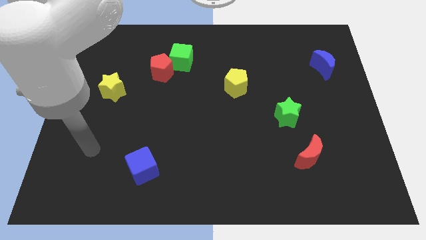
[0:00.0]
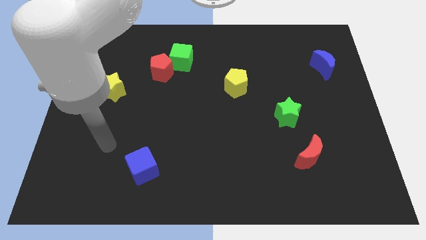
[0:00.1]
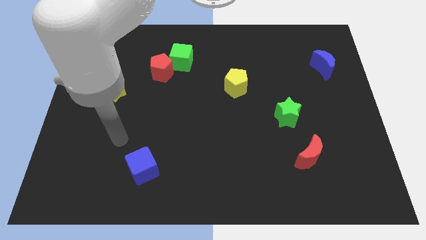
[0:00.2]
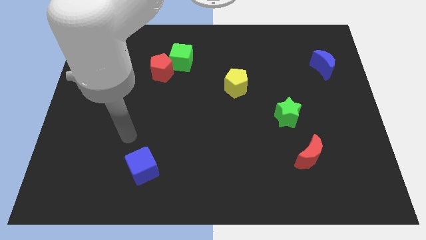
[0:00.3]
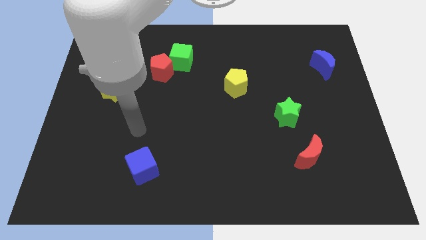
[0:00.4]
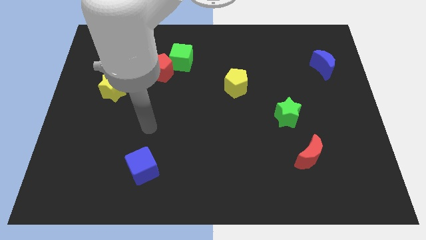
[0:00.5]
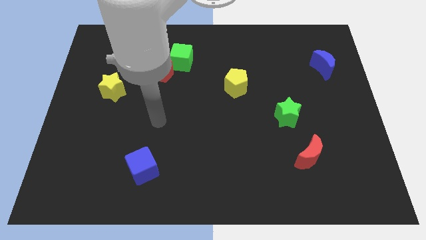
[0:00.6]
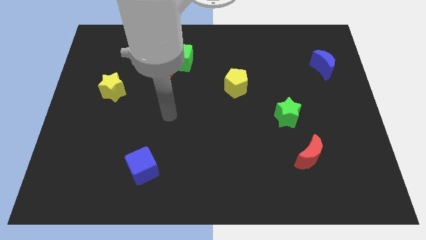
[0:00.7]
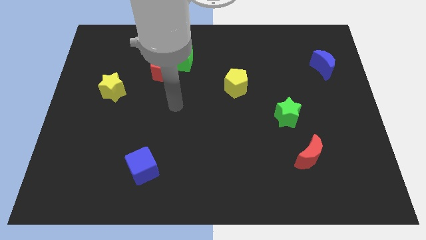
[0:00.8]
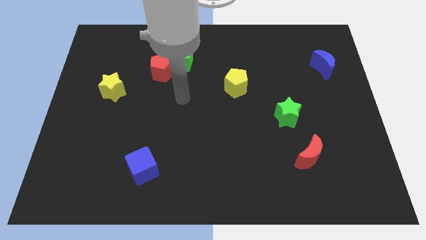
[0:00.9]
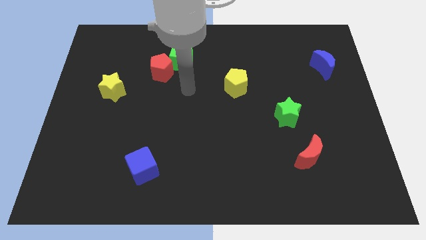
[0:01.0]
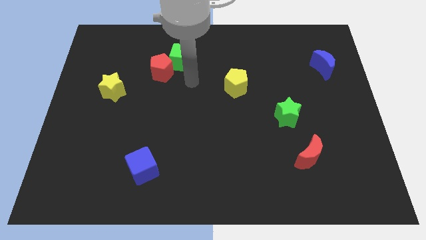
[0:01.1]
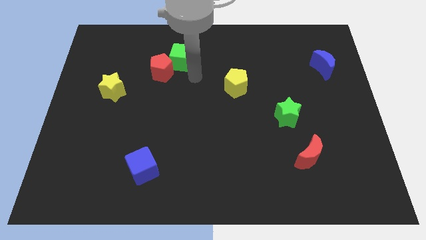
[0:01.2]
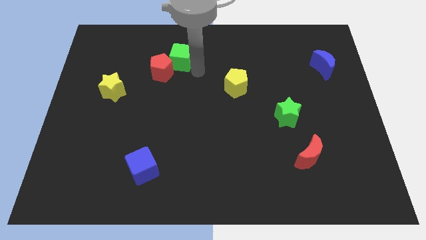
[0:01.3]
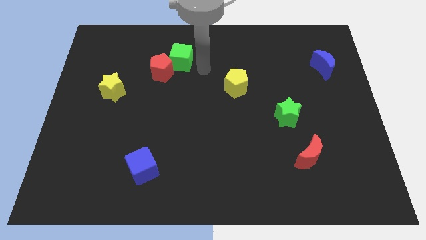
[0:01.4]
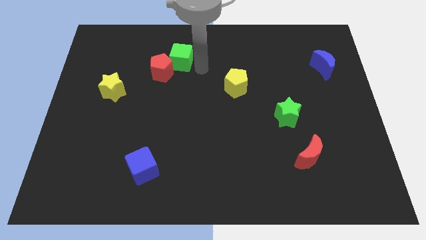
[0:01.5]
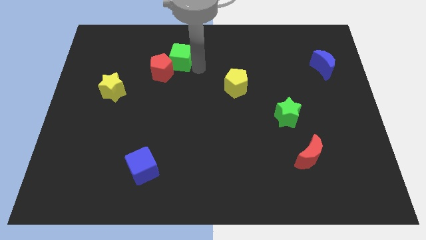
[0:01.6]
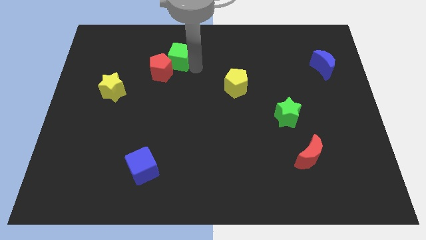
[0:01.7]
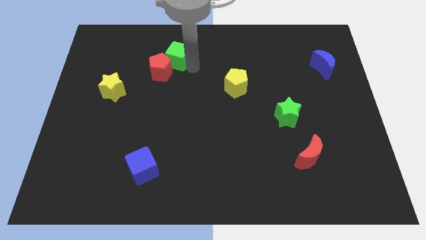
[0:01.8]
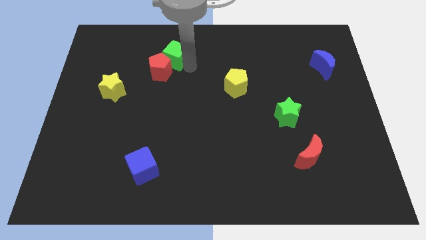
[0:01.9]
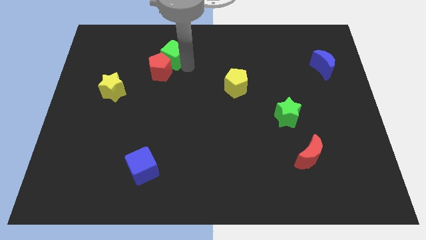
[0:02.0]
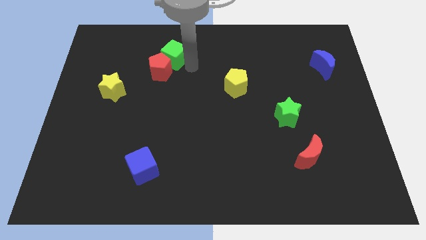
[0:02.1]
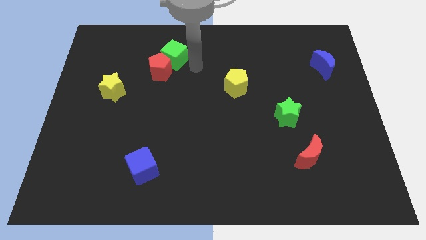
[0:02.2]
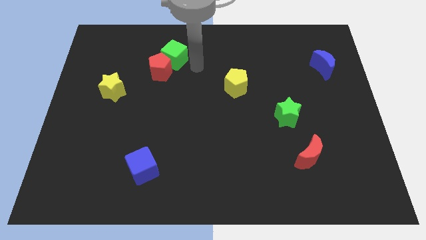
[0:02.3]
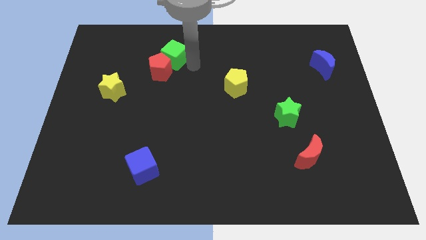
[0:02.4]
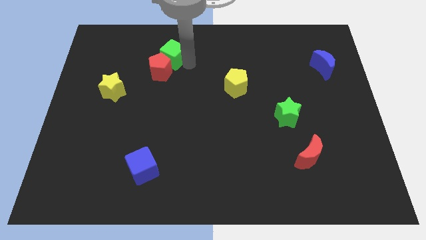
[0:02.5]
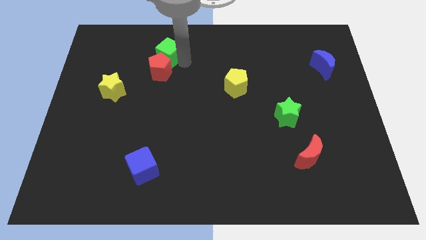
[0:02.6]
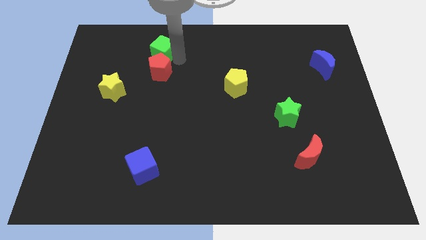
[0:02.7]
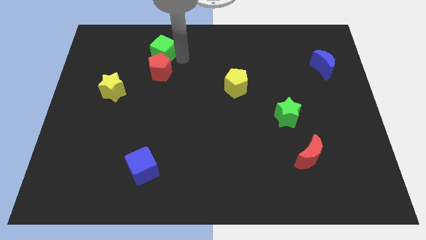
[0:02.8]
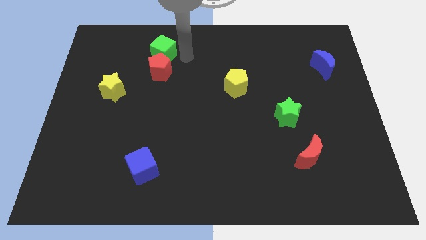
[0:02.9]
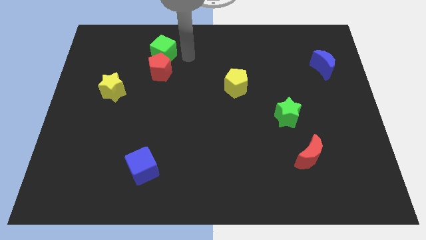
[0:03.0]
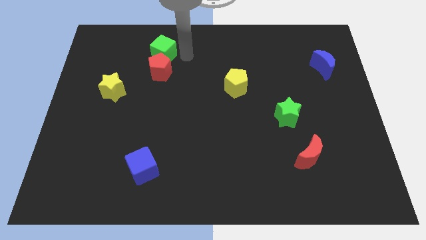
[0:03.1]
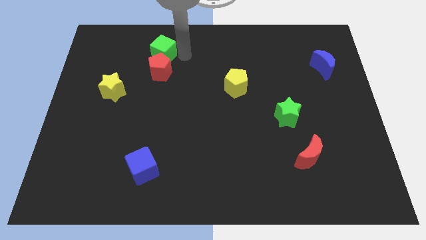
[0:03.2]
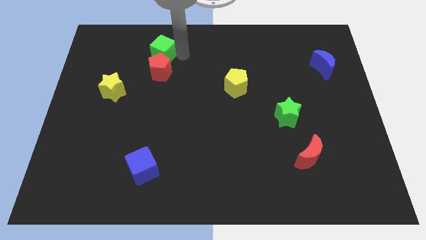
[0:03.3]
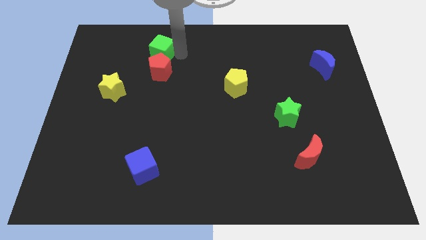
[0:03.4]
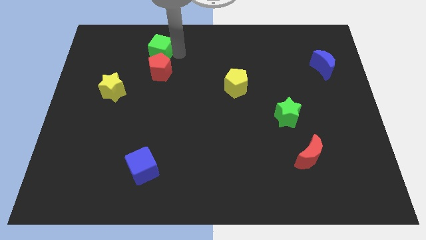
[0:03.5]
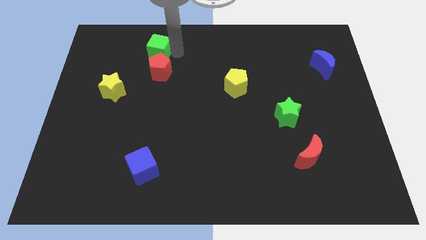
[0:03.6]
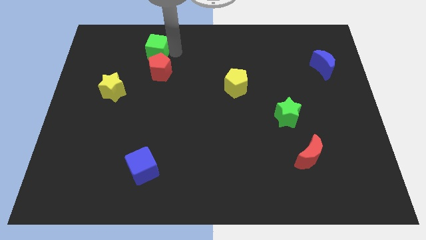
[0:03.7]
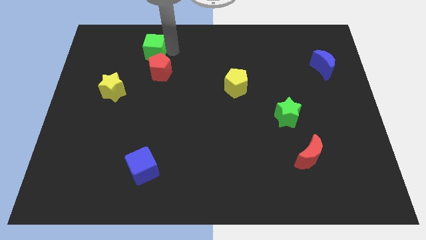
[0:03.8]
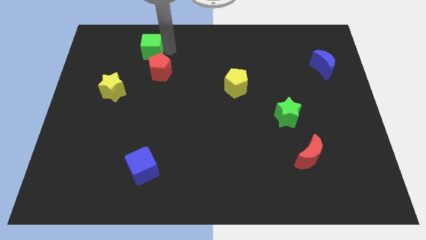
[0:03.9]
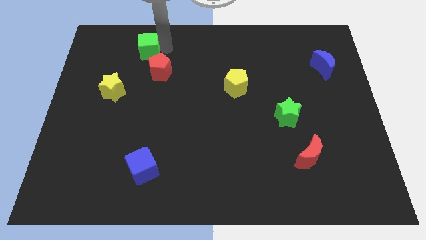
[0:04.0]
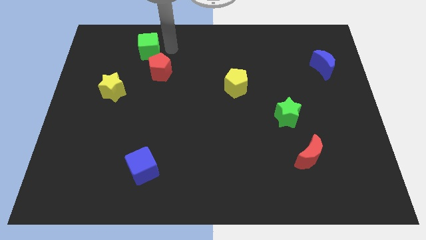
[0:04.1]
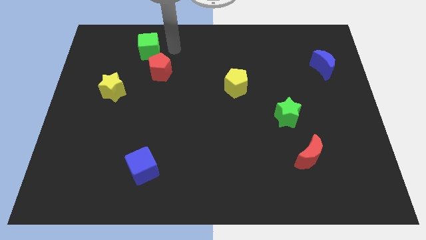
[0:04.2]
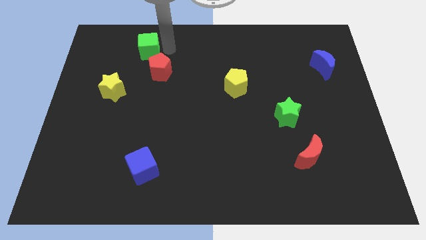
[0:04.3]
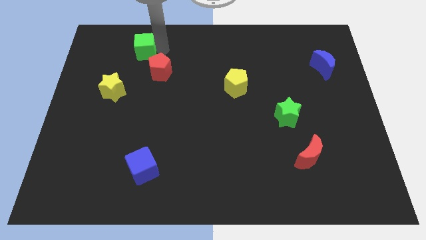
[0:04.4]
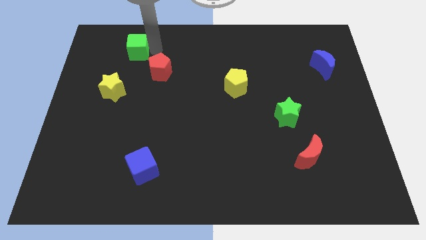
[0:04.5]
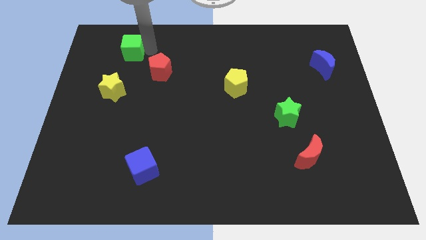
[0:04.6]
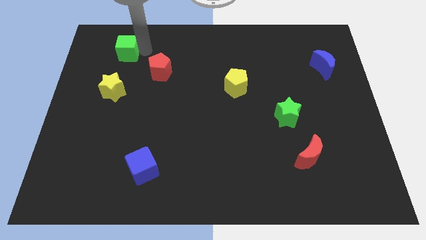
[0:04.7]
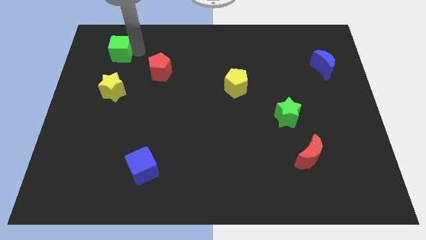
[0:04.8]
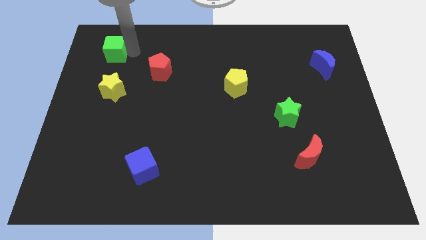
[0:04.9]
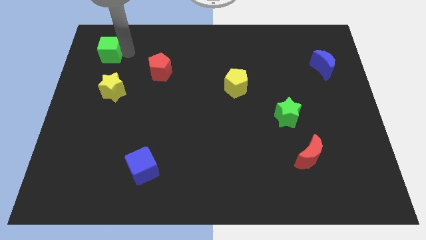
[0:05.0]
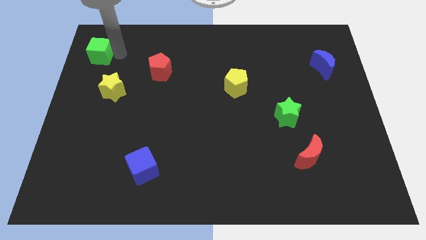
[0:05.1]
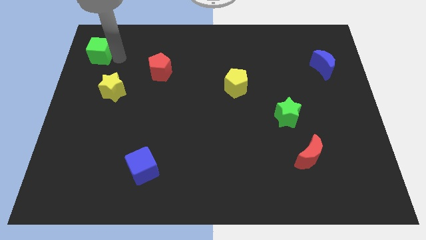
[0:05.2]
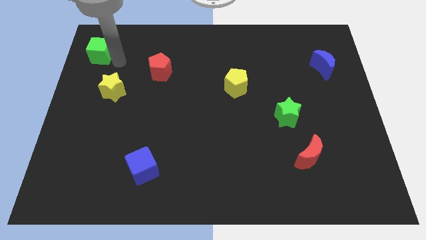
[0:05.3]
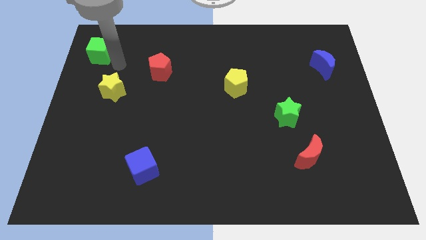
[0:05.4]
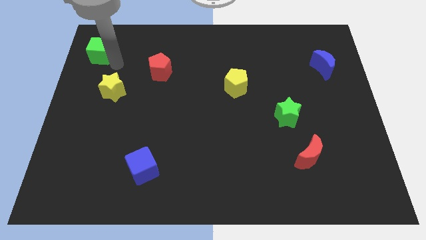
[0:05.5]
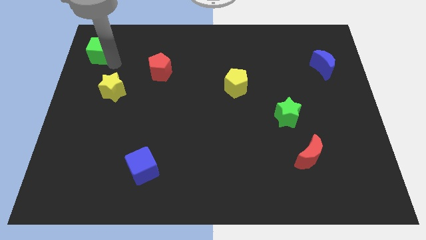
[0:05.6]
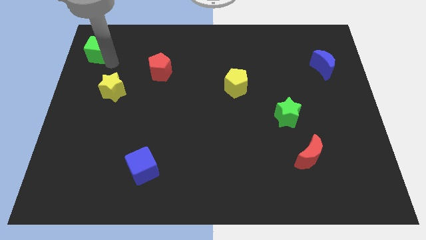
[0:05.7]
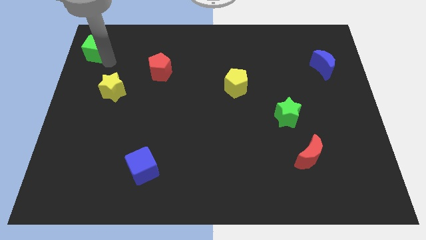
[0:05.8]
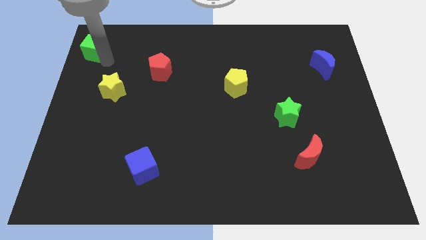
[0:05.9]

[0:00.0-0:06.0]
put the green cube to the top left of the board
